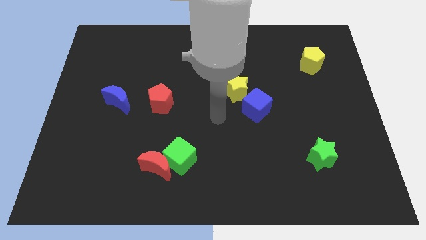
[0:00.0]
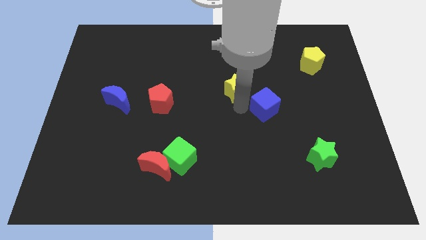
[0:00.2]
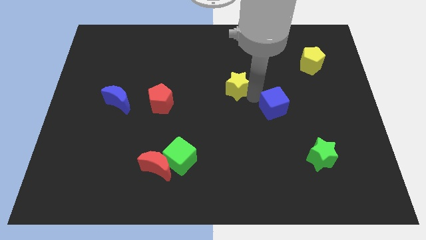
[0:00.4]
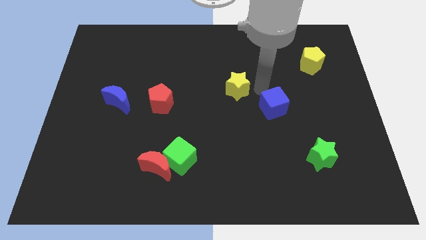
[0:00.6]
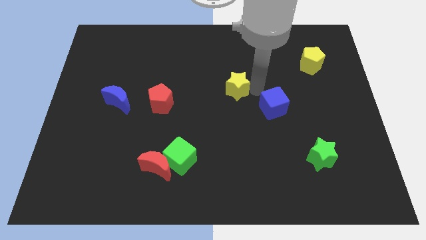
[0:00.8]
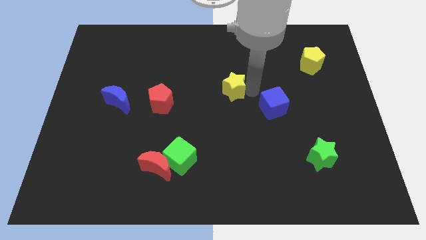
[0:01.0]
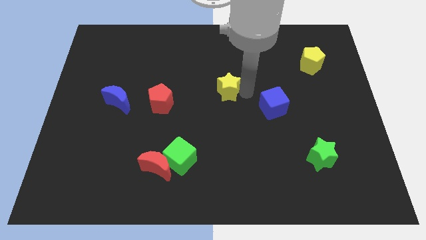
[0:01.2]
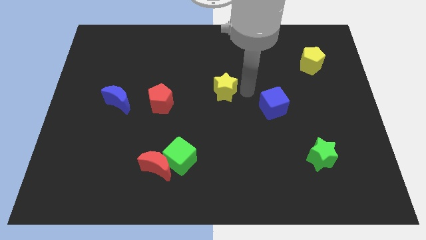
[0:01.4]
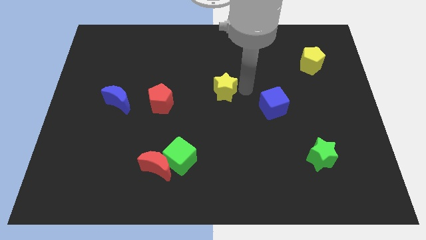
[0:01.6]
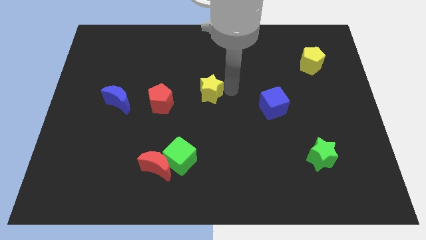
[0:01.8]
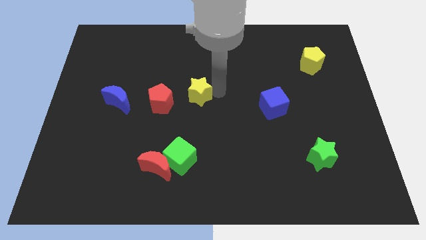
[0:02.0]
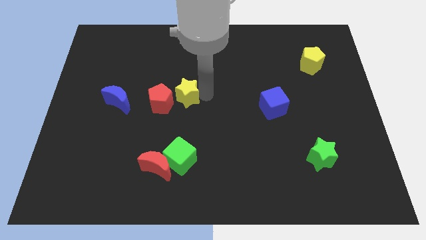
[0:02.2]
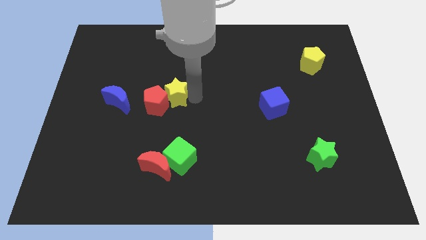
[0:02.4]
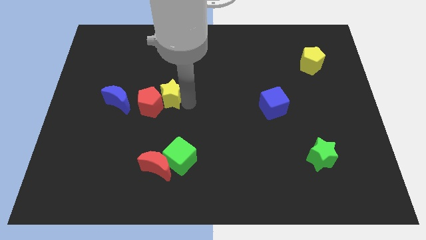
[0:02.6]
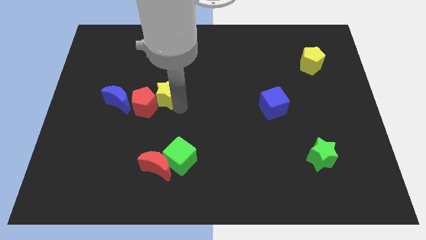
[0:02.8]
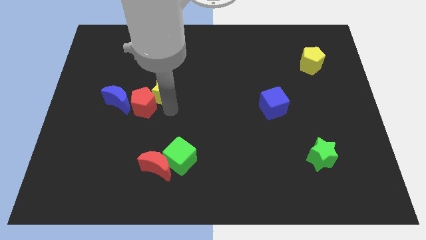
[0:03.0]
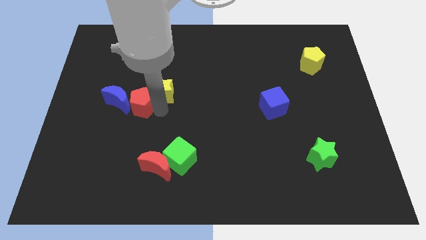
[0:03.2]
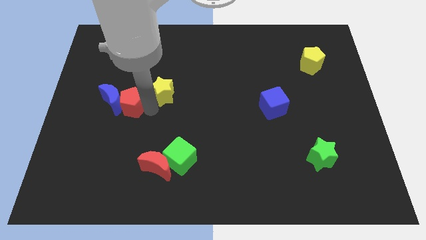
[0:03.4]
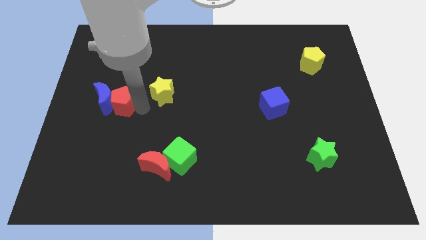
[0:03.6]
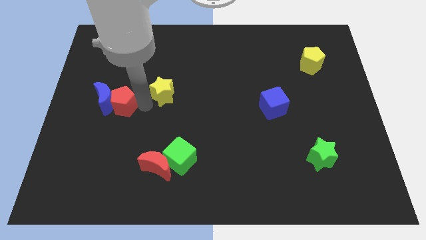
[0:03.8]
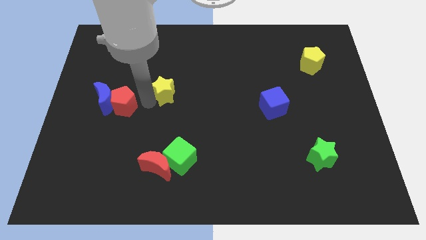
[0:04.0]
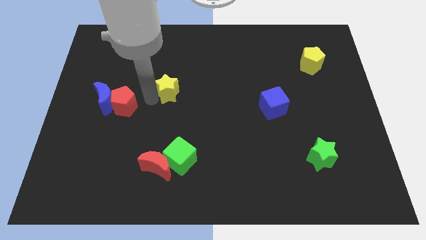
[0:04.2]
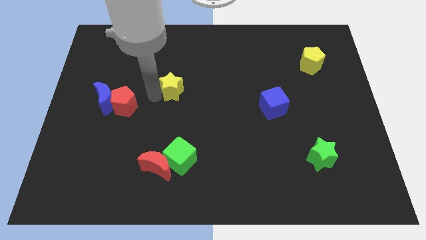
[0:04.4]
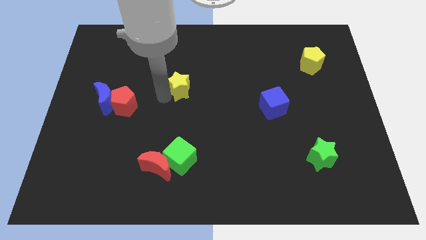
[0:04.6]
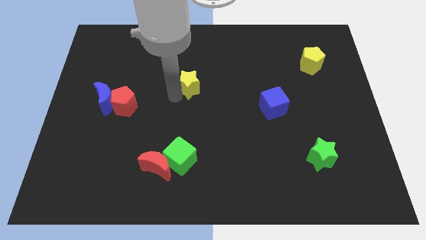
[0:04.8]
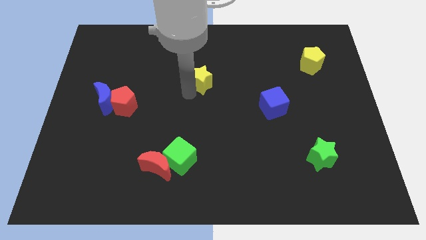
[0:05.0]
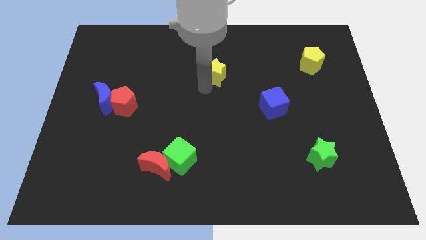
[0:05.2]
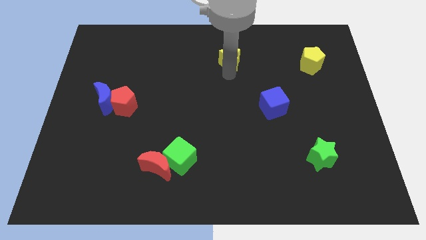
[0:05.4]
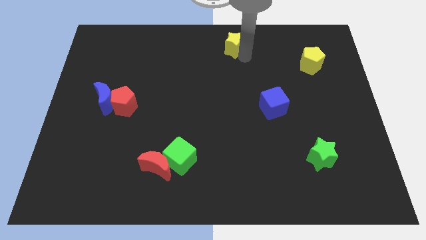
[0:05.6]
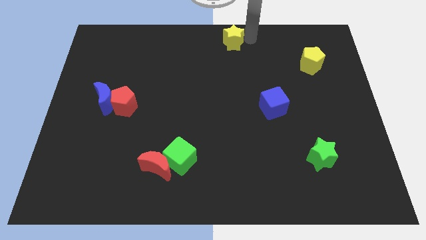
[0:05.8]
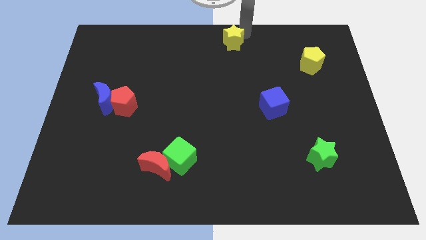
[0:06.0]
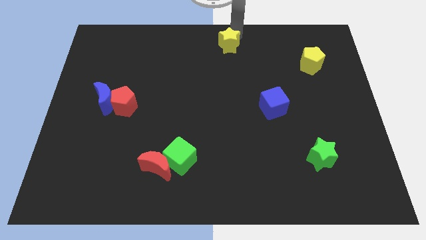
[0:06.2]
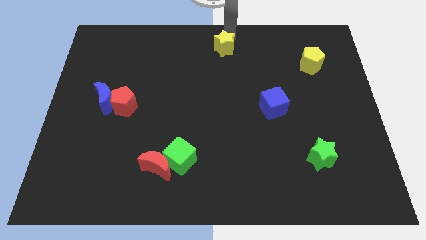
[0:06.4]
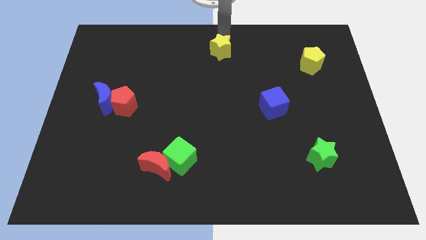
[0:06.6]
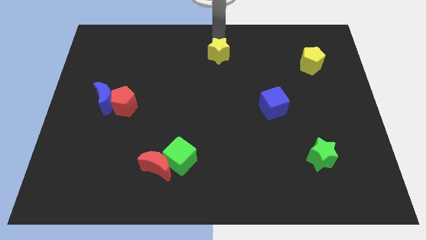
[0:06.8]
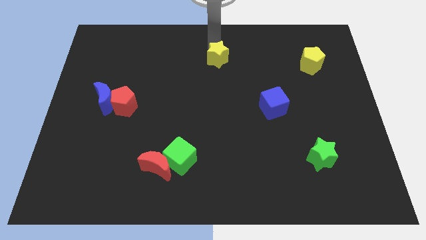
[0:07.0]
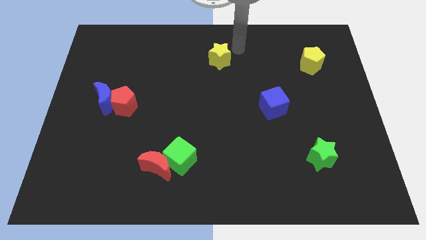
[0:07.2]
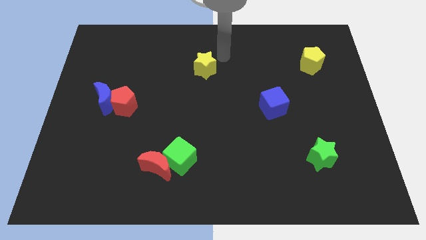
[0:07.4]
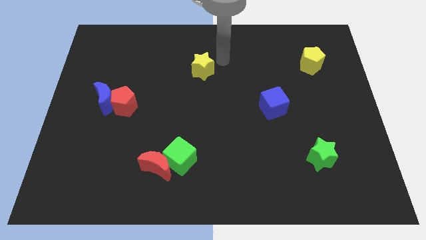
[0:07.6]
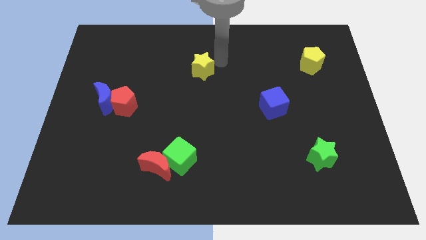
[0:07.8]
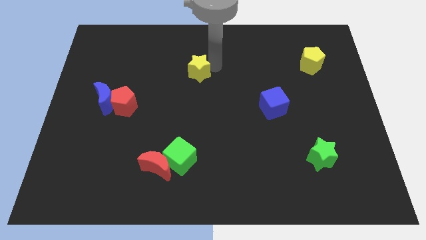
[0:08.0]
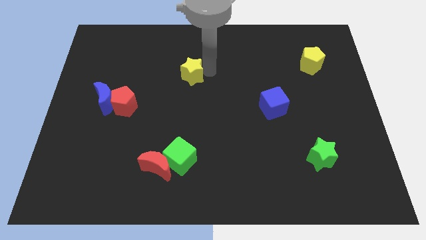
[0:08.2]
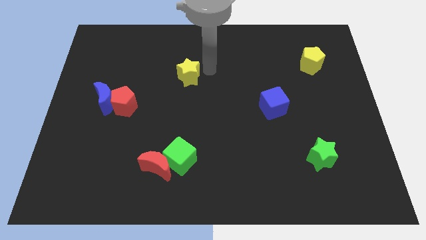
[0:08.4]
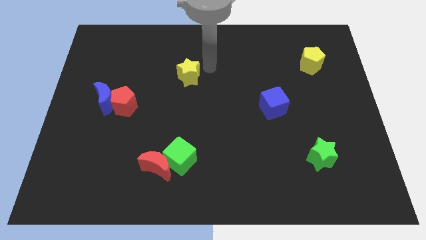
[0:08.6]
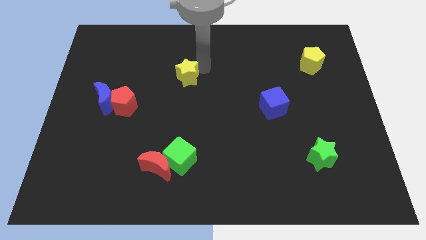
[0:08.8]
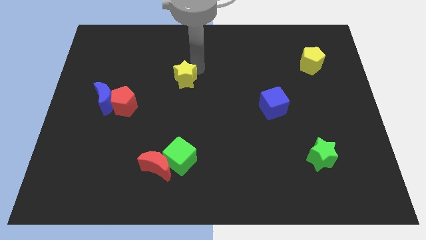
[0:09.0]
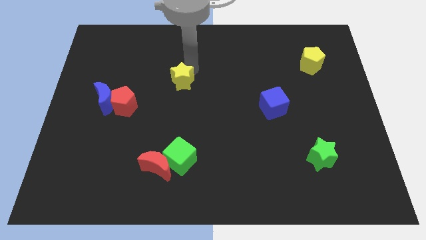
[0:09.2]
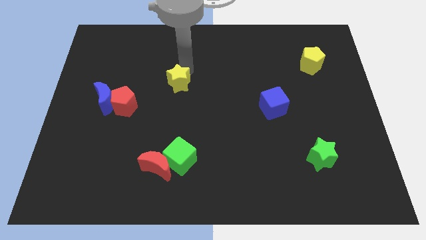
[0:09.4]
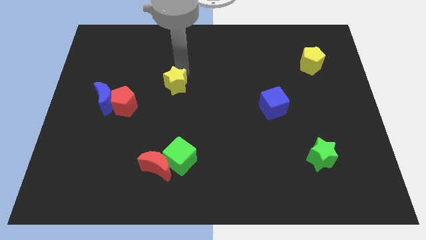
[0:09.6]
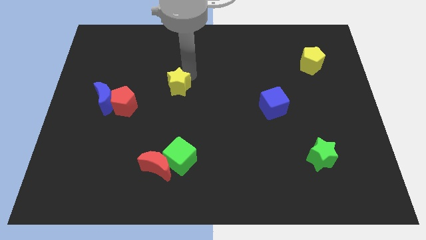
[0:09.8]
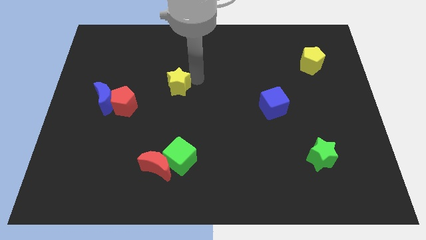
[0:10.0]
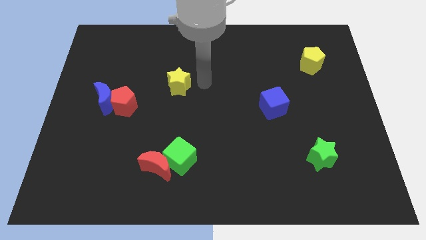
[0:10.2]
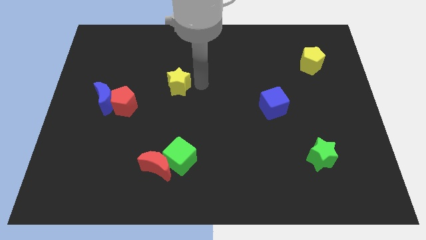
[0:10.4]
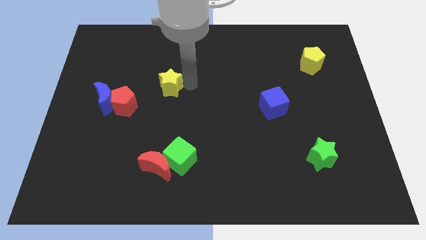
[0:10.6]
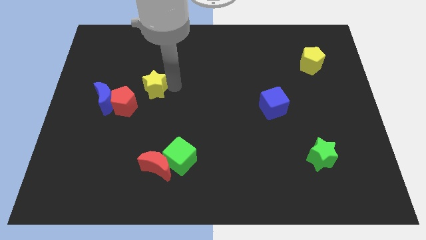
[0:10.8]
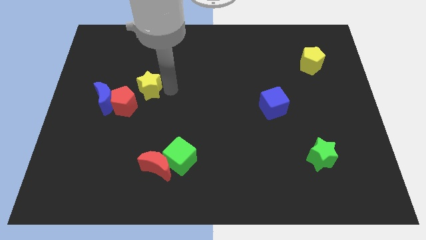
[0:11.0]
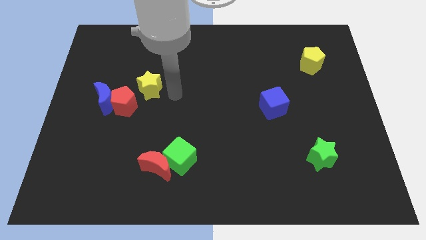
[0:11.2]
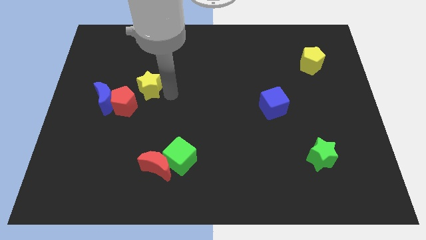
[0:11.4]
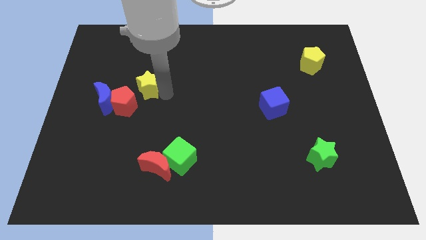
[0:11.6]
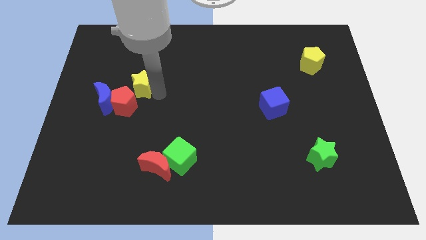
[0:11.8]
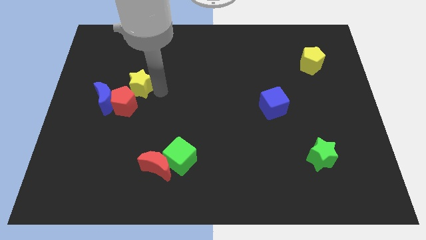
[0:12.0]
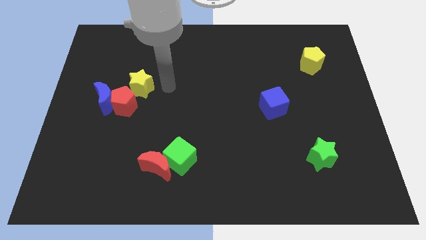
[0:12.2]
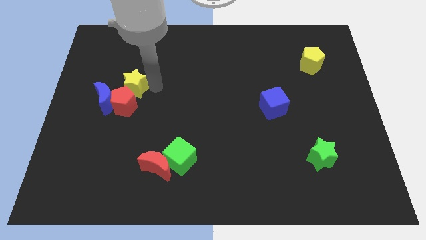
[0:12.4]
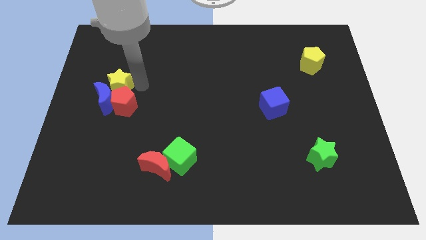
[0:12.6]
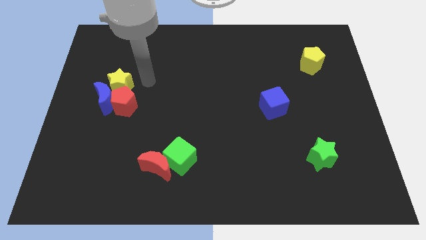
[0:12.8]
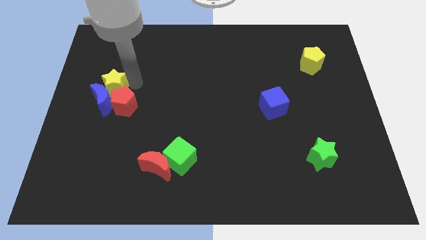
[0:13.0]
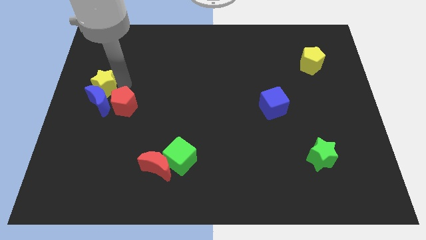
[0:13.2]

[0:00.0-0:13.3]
slide the yellow star to the left side of the board

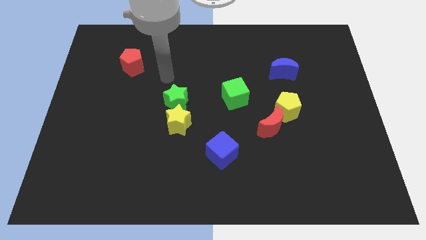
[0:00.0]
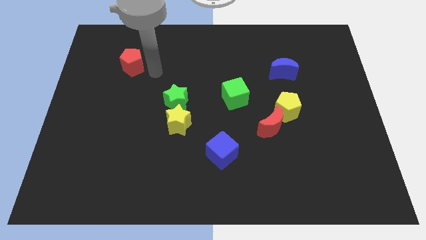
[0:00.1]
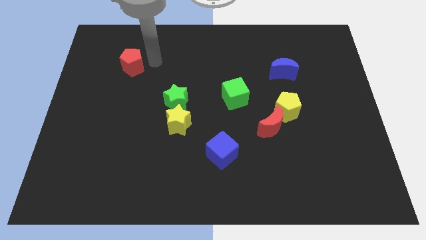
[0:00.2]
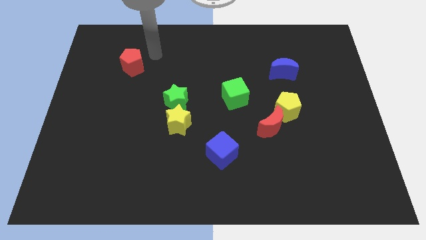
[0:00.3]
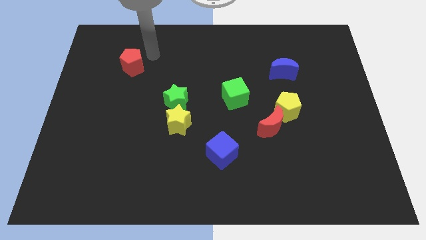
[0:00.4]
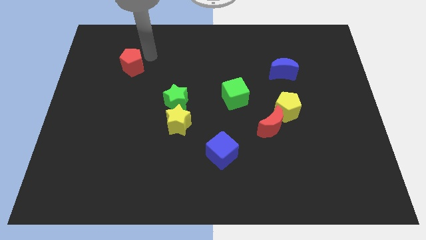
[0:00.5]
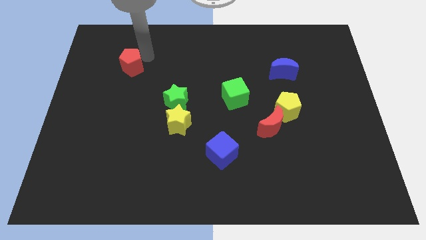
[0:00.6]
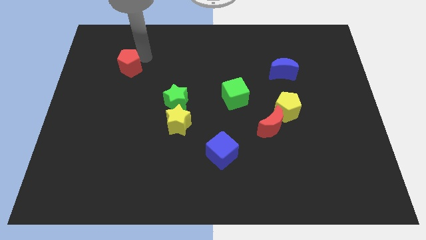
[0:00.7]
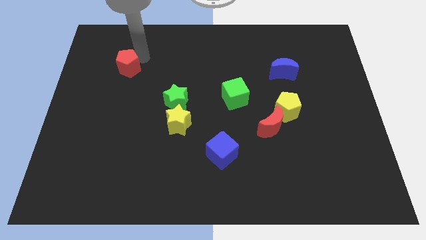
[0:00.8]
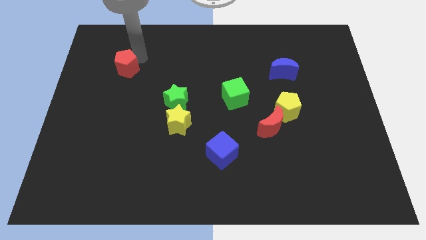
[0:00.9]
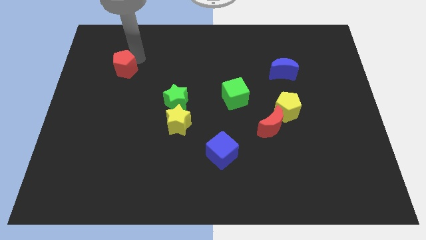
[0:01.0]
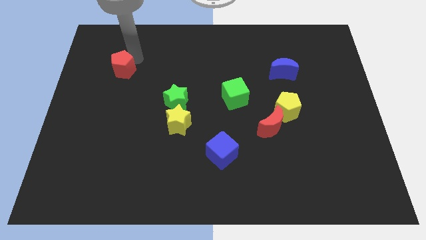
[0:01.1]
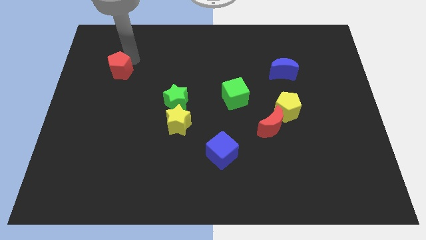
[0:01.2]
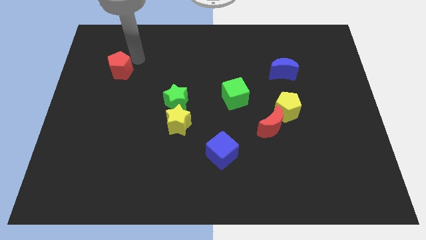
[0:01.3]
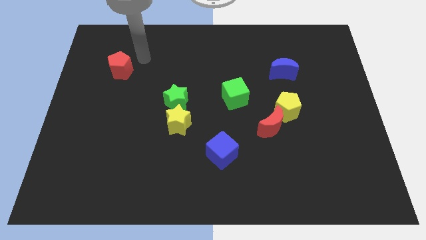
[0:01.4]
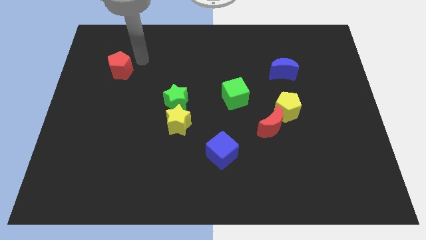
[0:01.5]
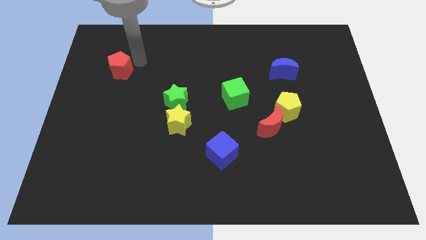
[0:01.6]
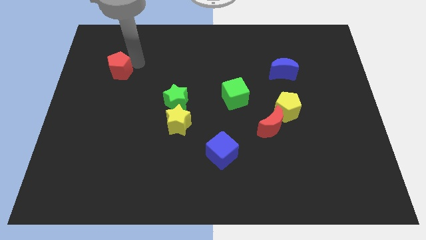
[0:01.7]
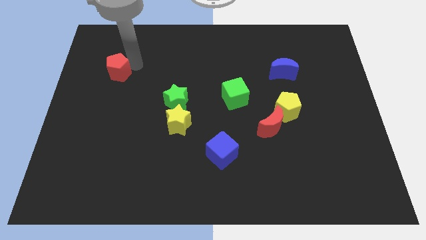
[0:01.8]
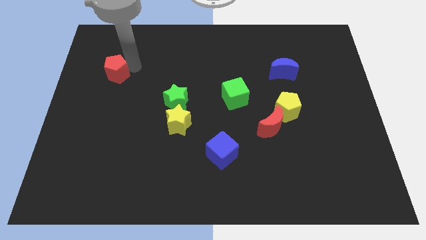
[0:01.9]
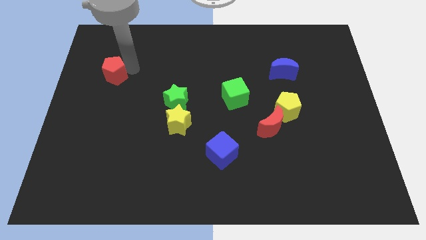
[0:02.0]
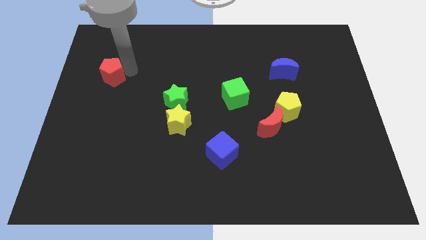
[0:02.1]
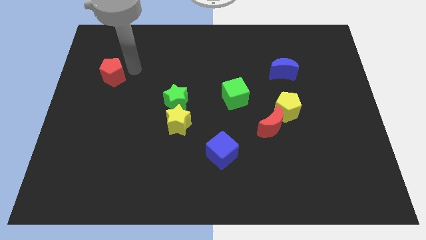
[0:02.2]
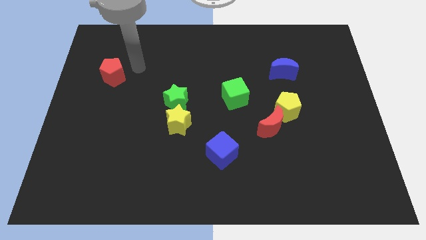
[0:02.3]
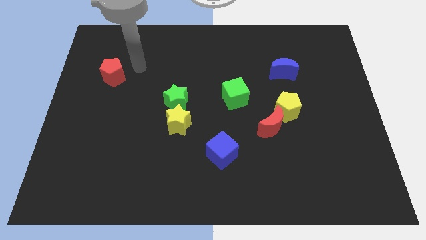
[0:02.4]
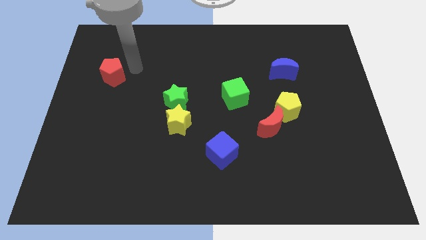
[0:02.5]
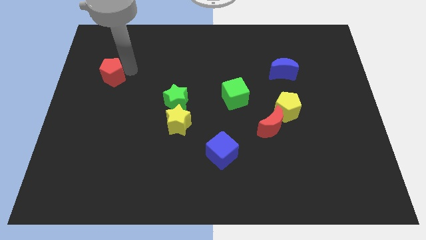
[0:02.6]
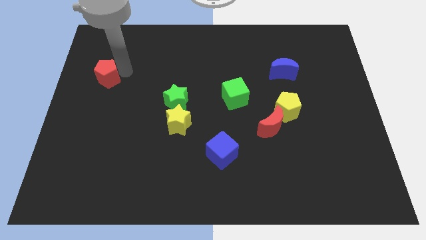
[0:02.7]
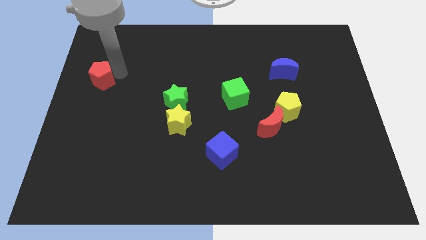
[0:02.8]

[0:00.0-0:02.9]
put the red pentagon to the left side of the board
